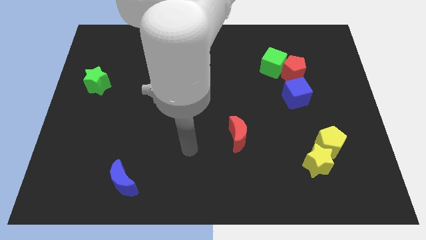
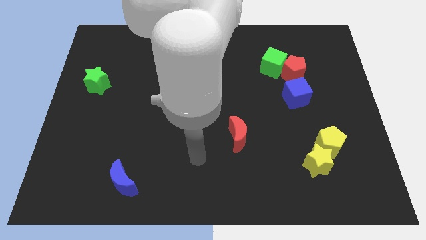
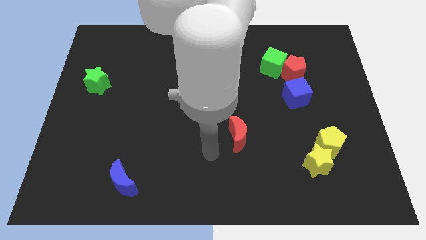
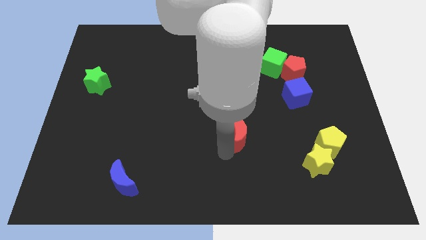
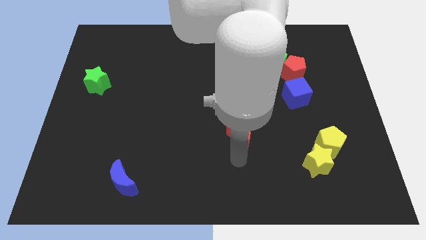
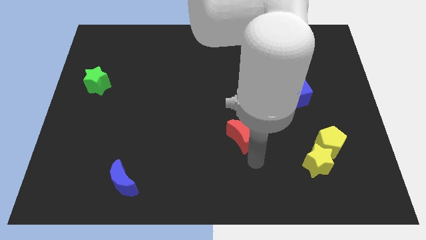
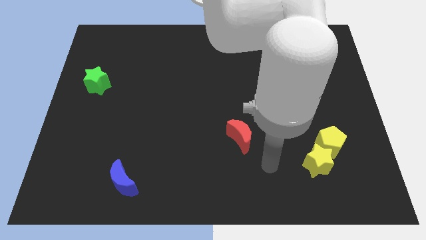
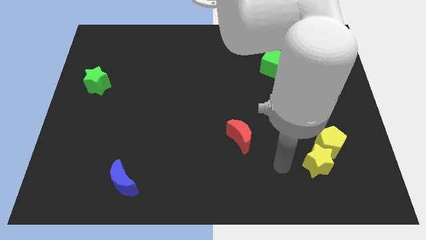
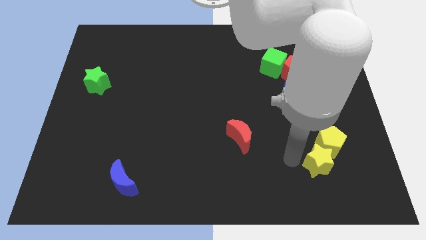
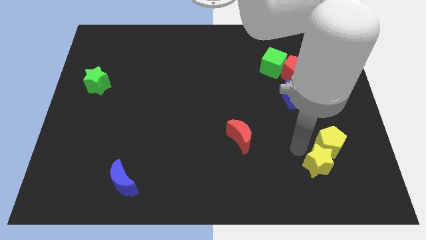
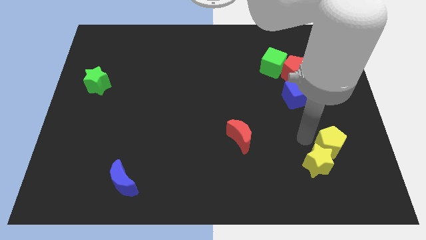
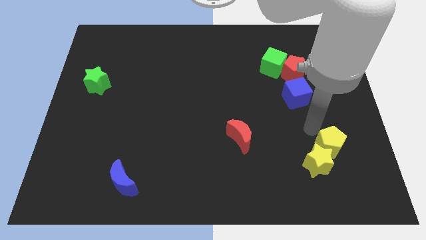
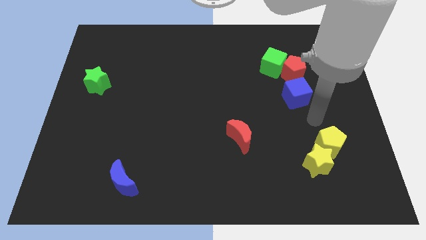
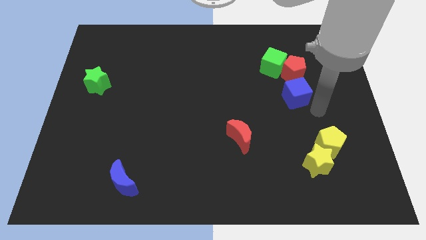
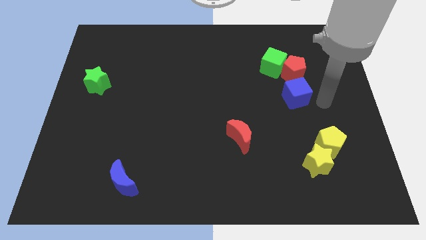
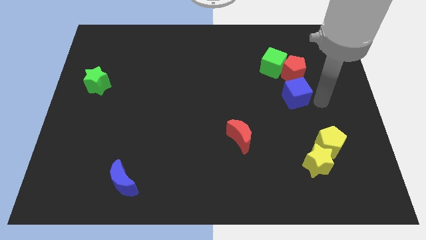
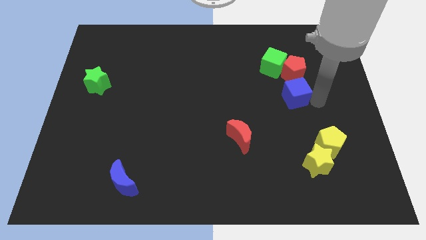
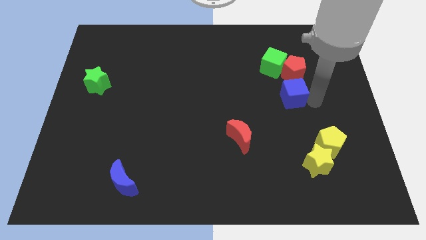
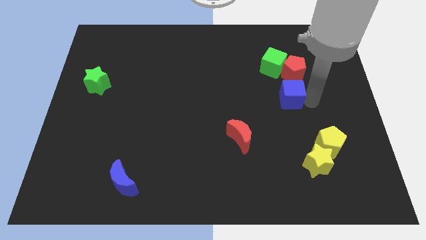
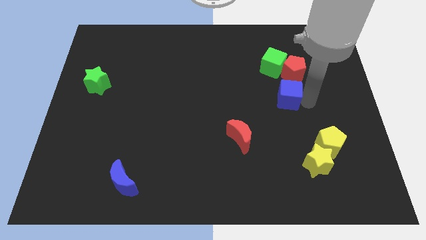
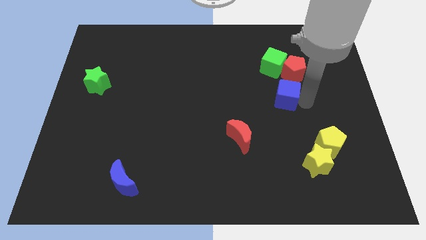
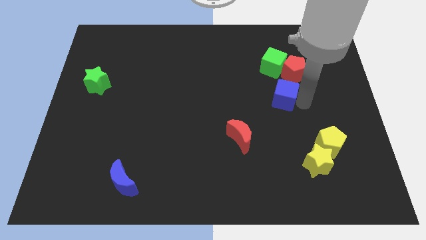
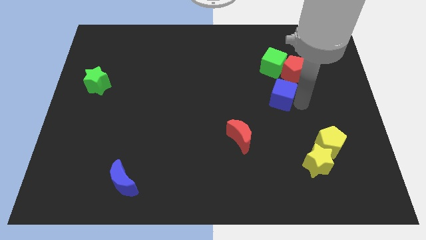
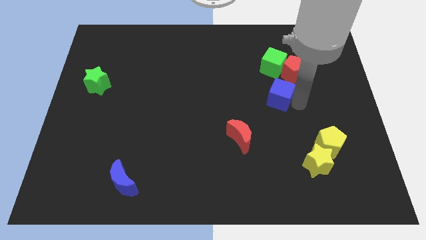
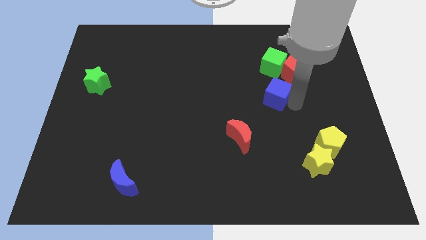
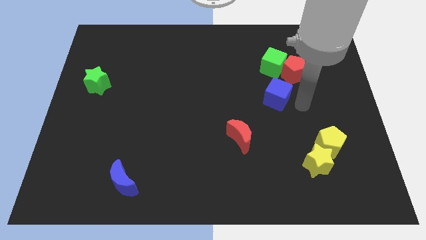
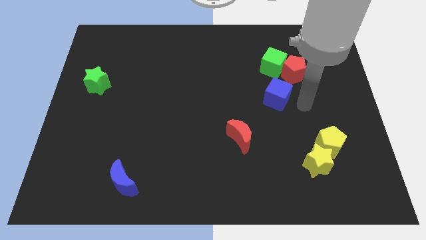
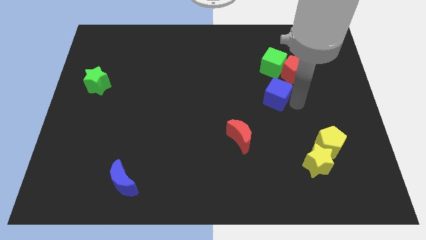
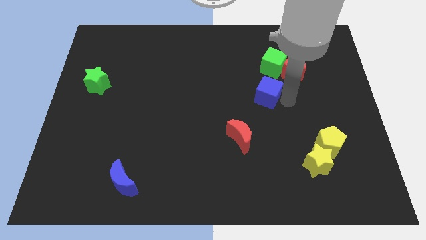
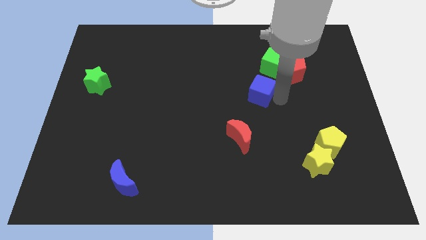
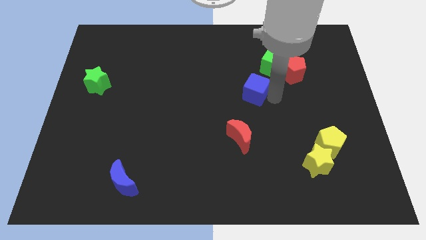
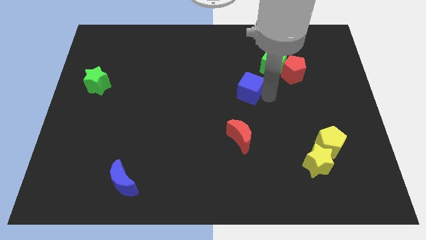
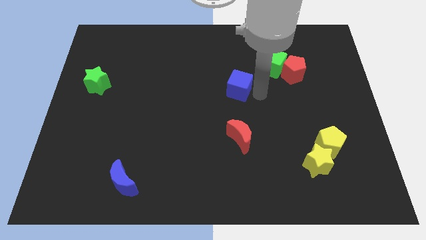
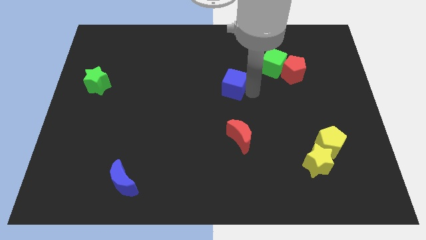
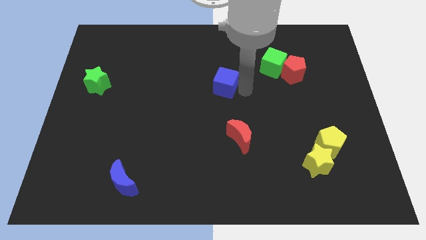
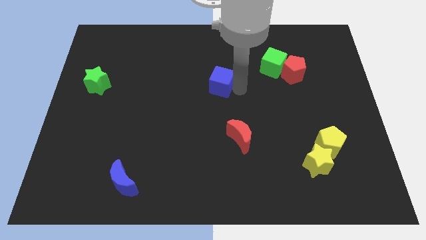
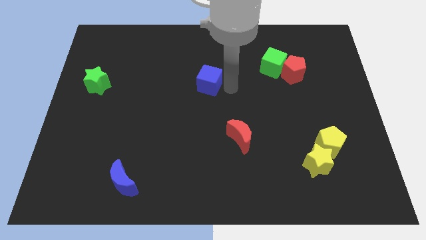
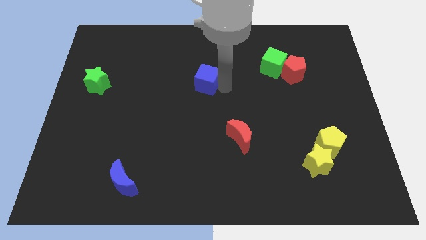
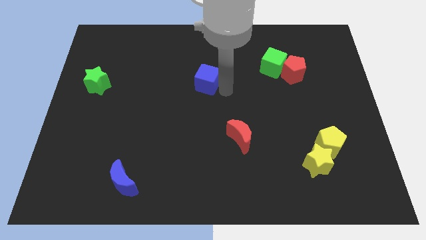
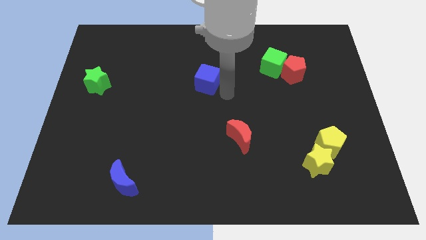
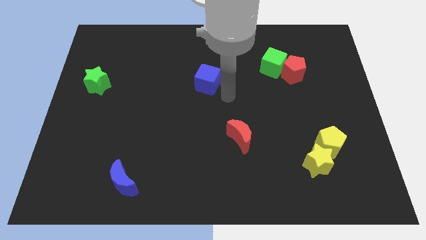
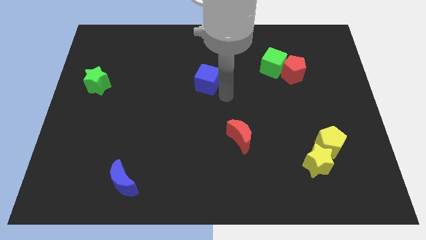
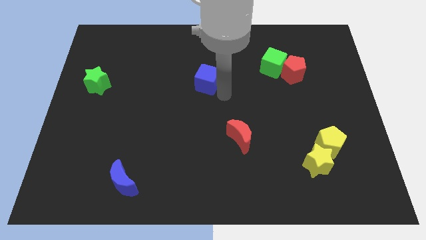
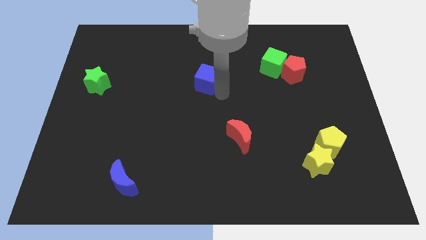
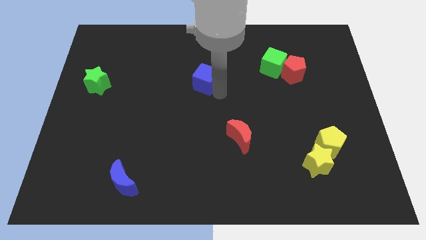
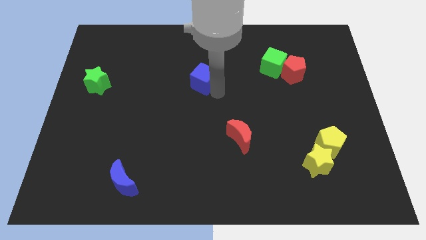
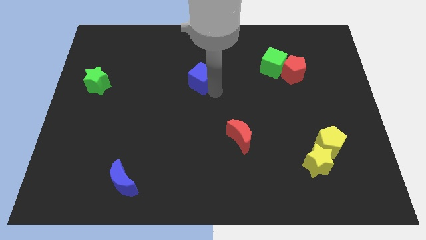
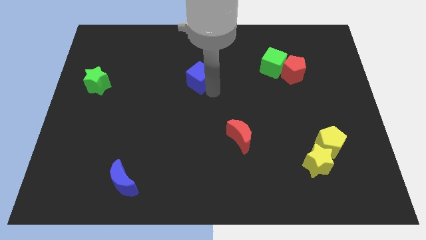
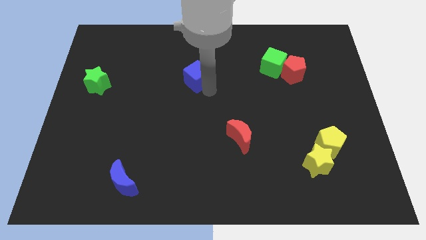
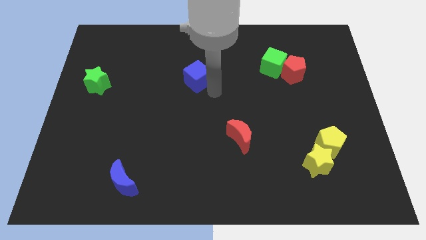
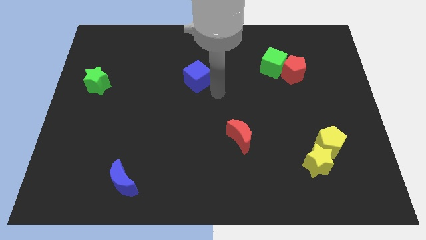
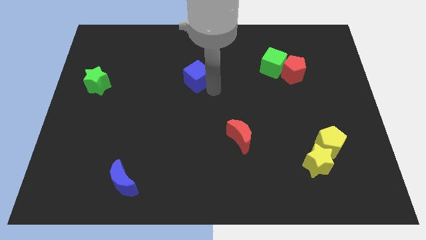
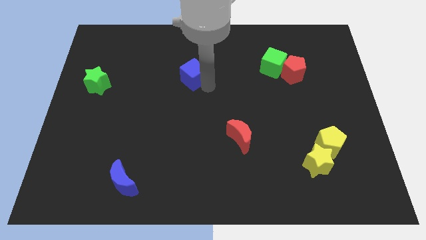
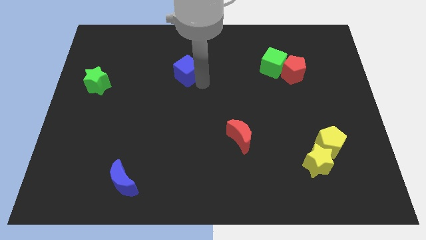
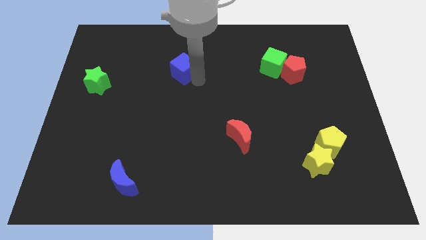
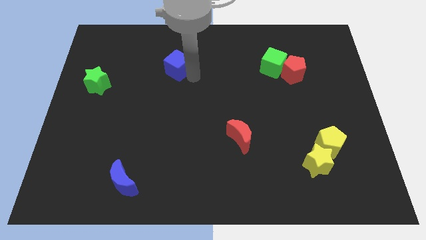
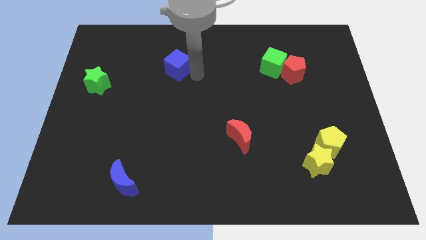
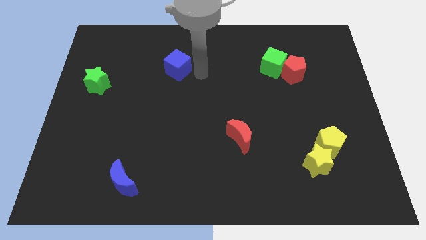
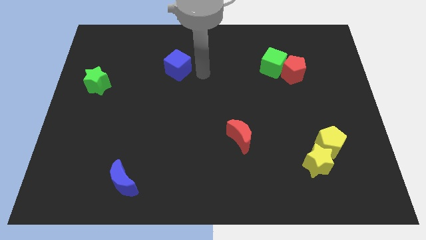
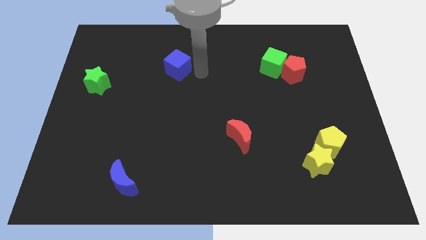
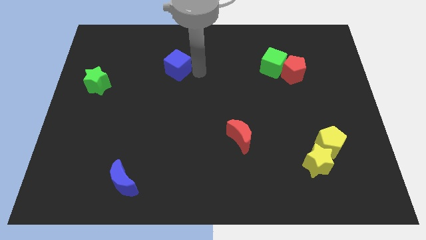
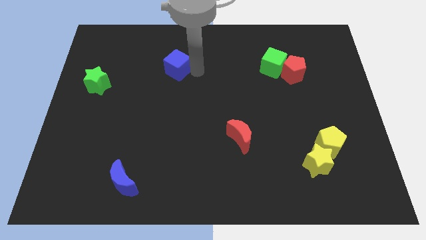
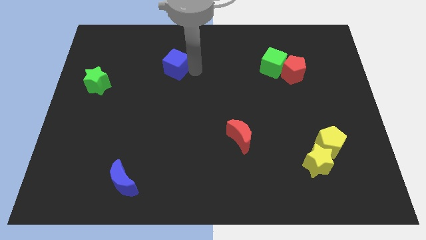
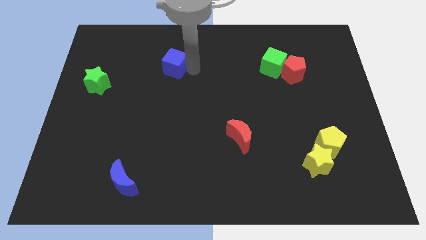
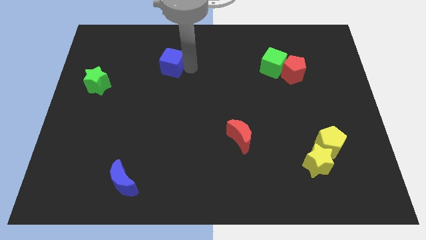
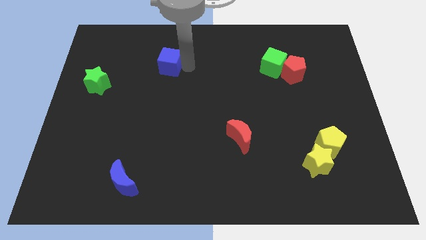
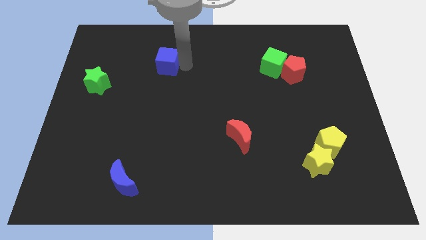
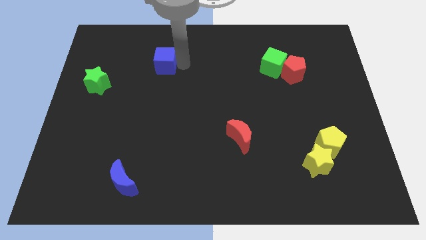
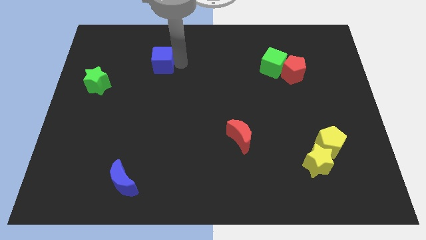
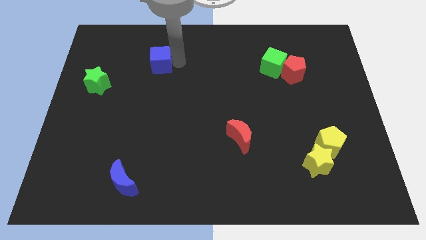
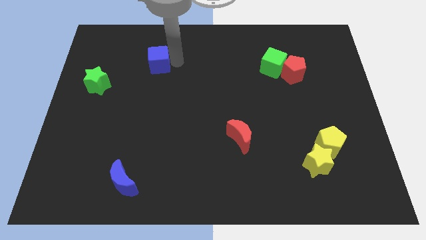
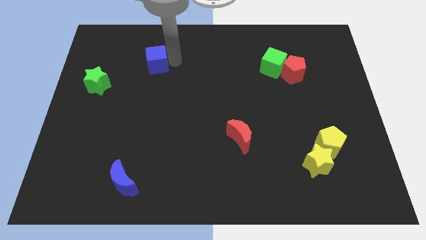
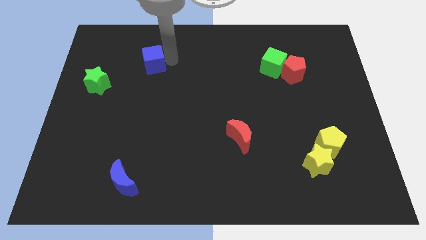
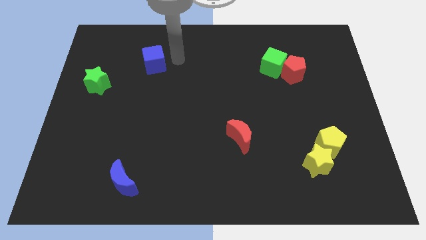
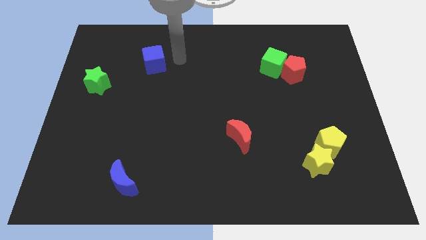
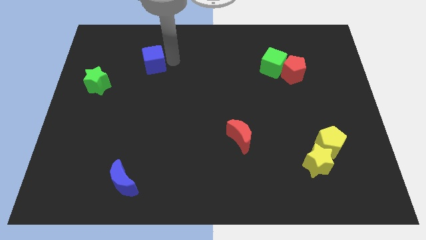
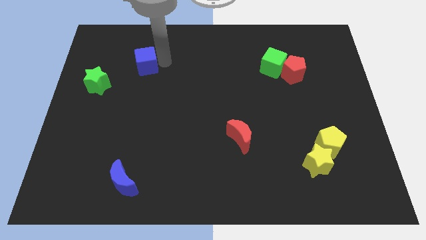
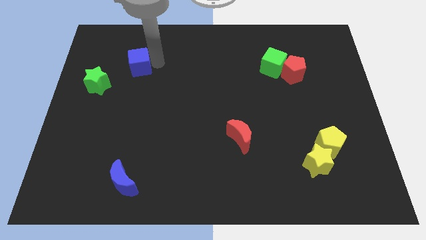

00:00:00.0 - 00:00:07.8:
move the blue cube to the top right side of the green star
